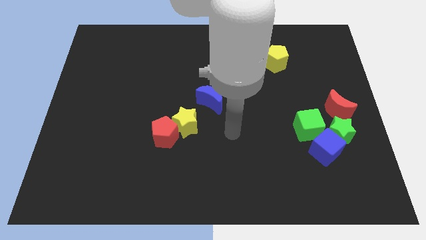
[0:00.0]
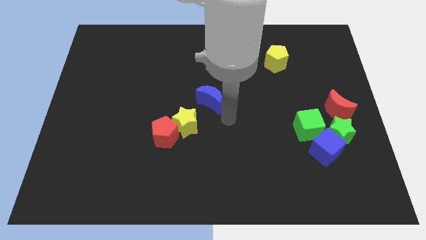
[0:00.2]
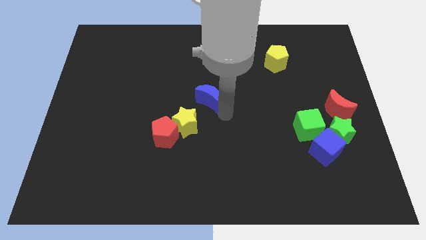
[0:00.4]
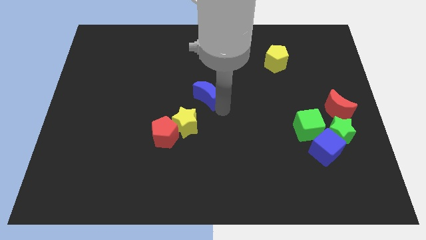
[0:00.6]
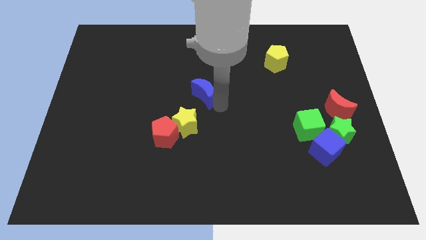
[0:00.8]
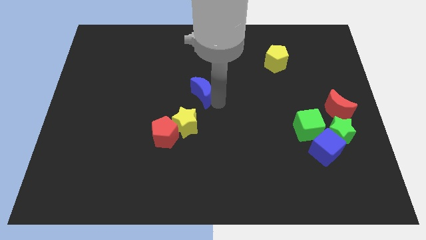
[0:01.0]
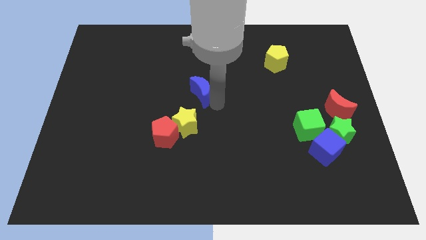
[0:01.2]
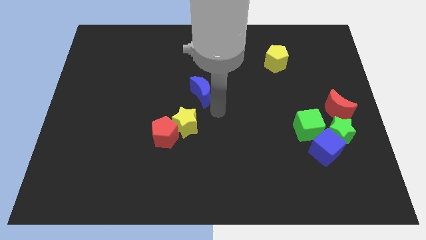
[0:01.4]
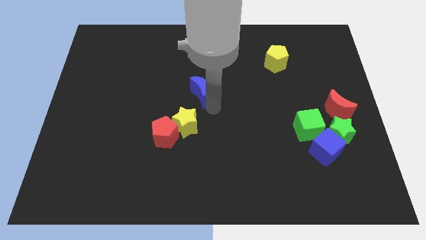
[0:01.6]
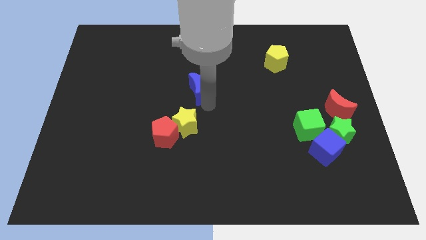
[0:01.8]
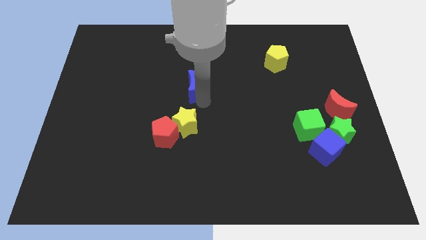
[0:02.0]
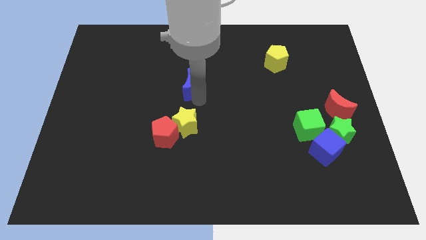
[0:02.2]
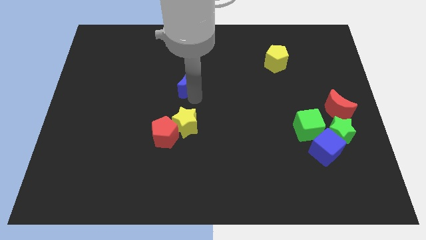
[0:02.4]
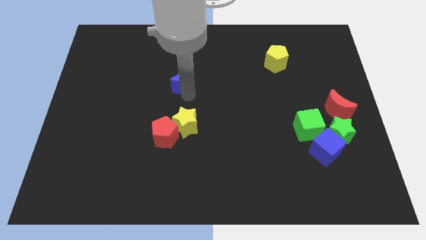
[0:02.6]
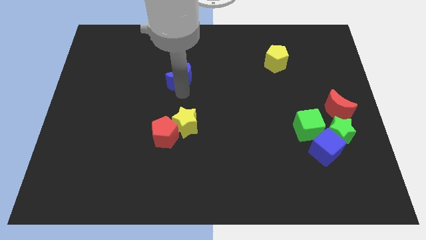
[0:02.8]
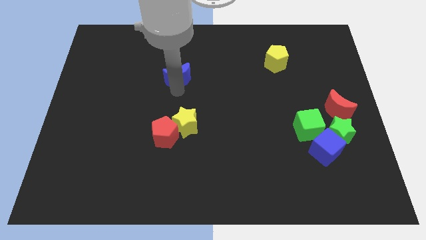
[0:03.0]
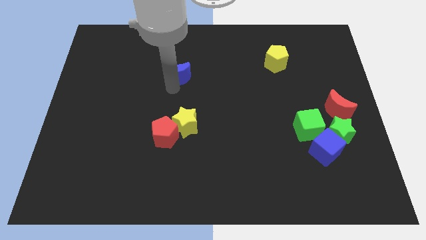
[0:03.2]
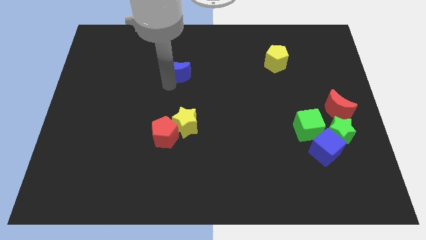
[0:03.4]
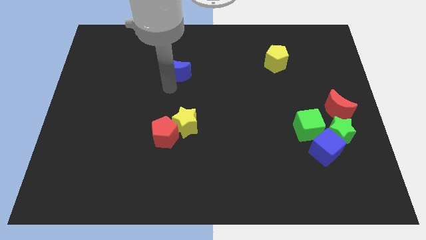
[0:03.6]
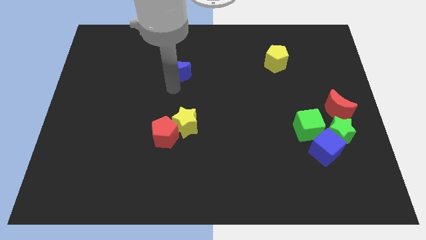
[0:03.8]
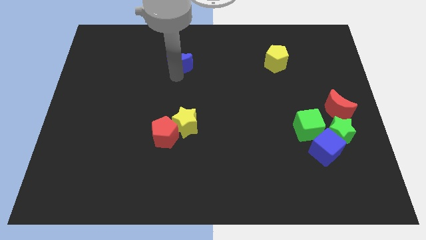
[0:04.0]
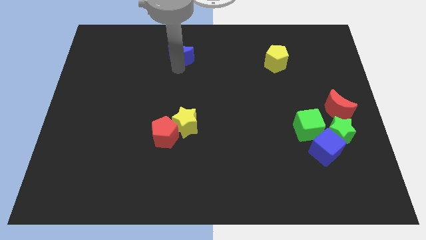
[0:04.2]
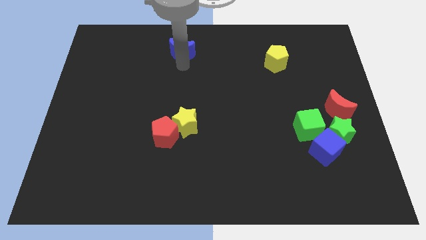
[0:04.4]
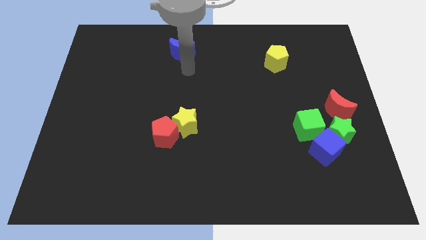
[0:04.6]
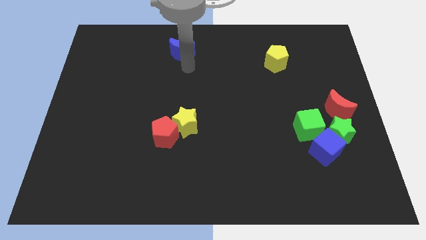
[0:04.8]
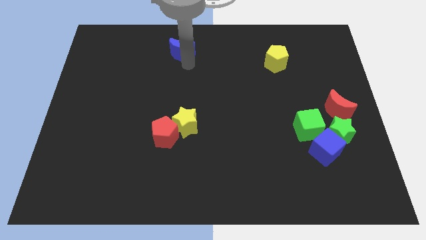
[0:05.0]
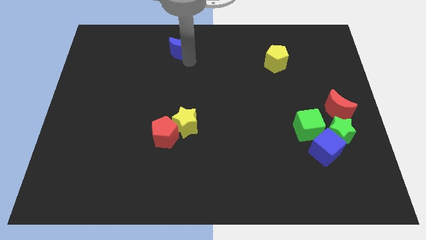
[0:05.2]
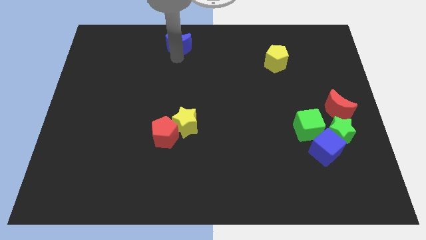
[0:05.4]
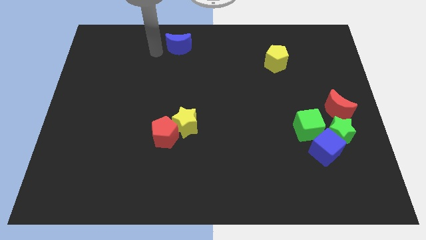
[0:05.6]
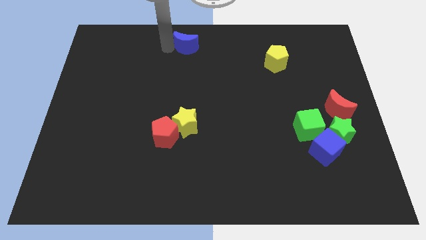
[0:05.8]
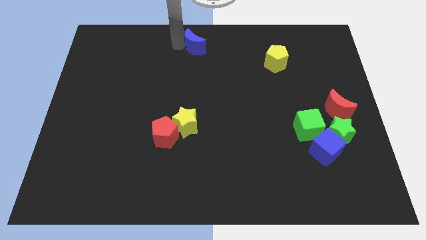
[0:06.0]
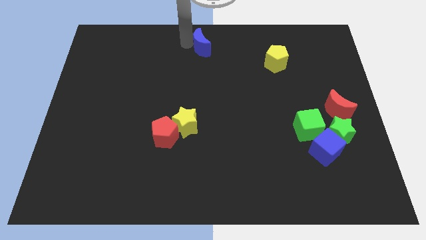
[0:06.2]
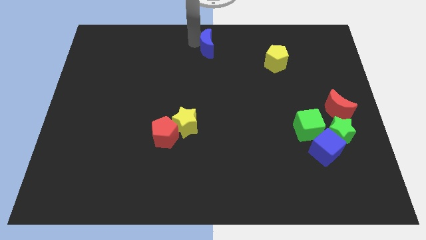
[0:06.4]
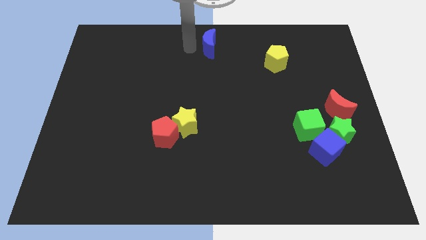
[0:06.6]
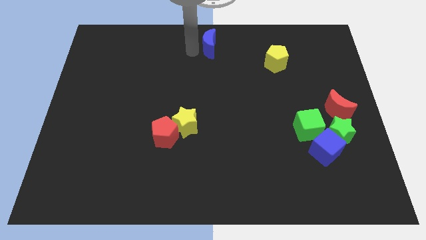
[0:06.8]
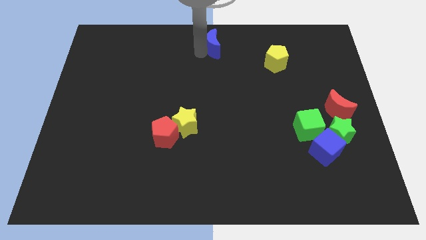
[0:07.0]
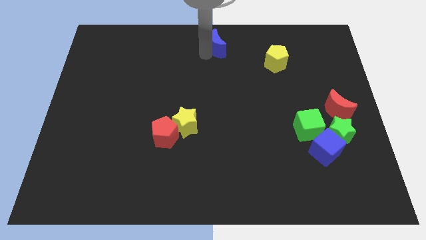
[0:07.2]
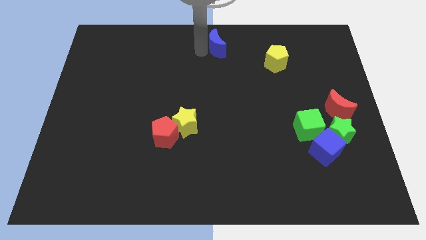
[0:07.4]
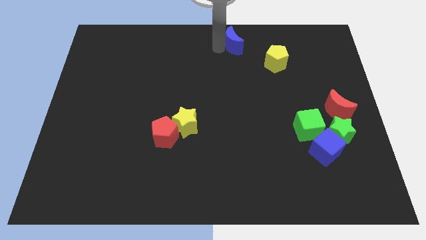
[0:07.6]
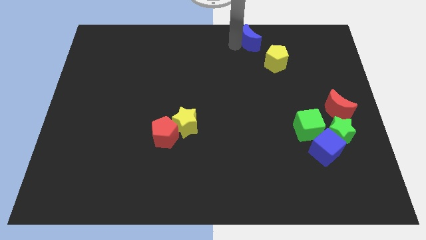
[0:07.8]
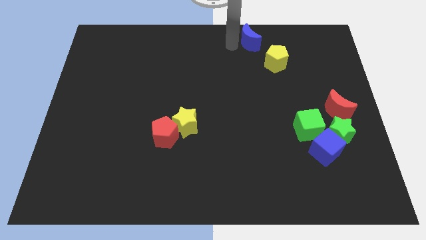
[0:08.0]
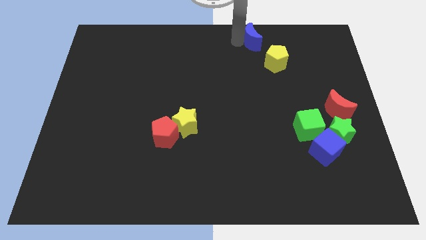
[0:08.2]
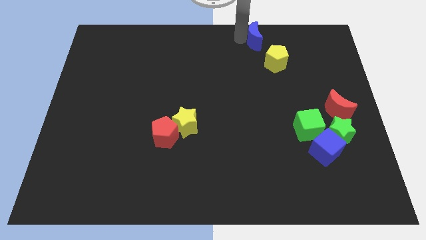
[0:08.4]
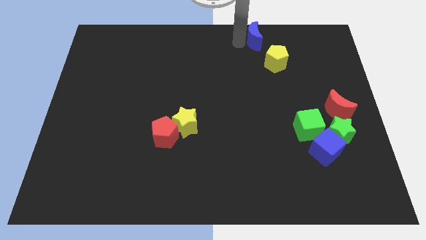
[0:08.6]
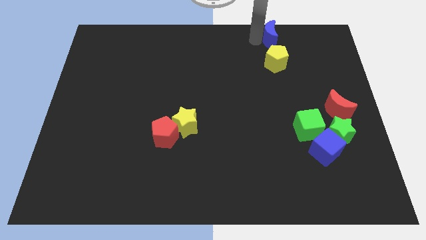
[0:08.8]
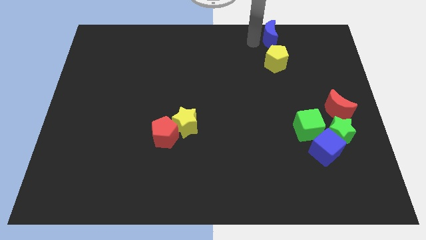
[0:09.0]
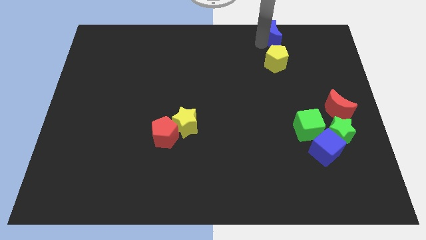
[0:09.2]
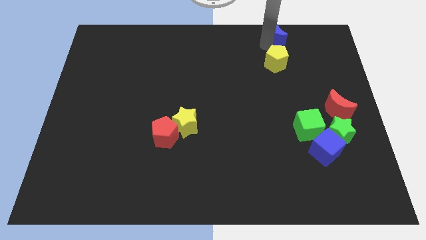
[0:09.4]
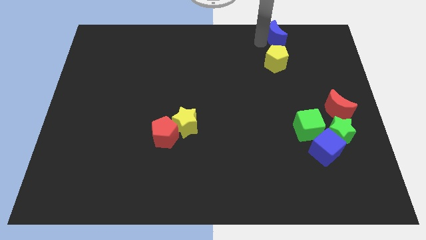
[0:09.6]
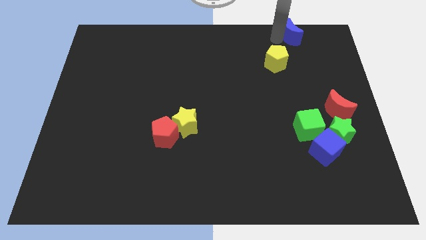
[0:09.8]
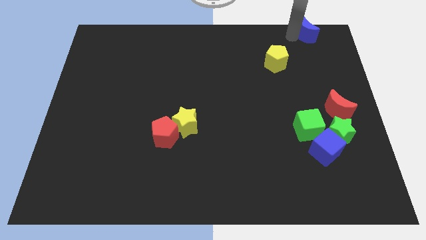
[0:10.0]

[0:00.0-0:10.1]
put the blue moon to the top right
